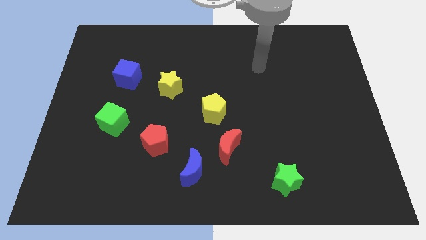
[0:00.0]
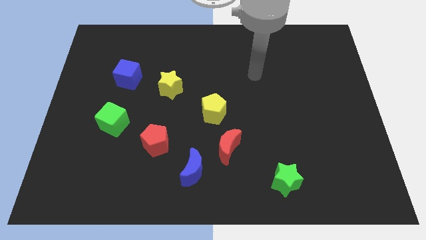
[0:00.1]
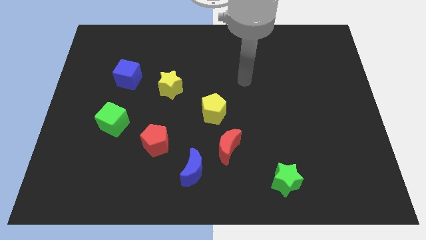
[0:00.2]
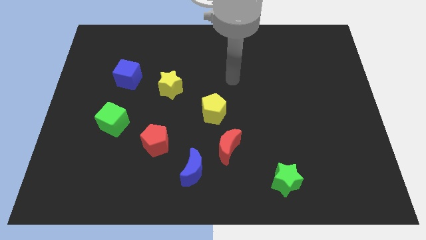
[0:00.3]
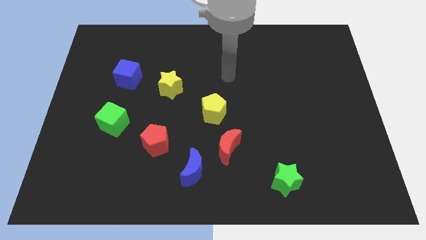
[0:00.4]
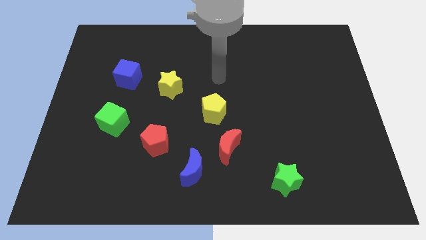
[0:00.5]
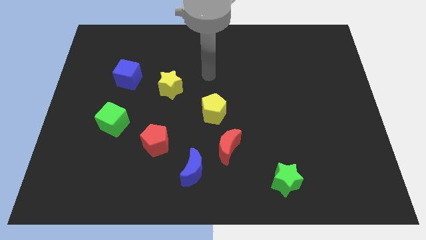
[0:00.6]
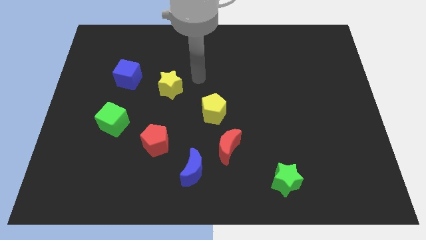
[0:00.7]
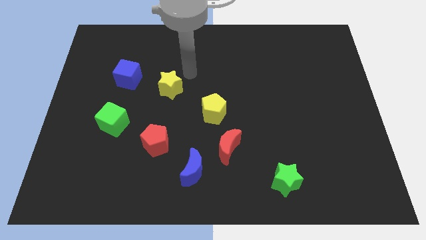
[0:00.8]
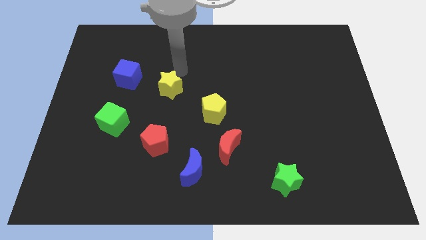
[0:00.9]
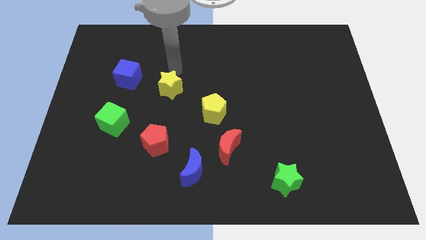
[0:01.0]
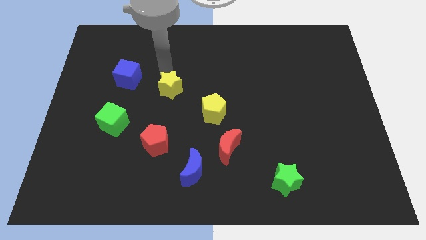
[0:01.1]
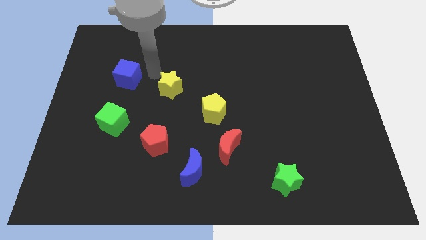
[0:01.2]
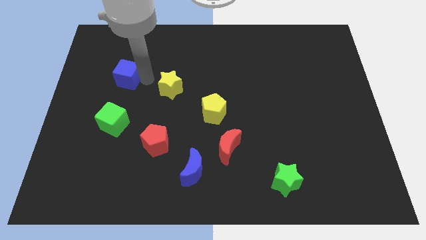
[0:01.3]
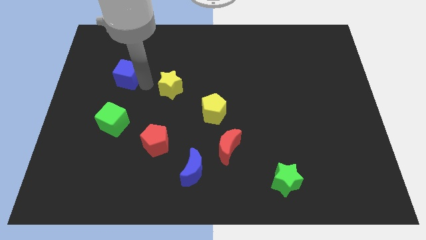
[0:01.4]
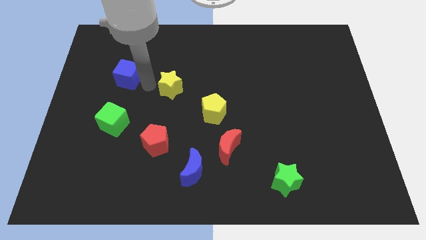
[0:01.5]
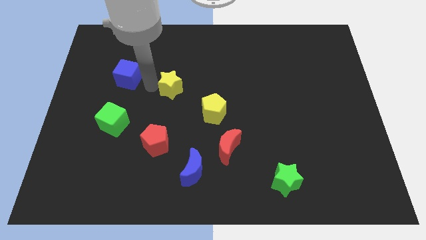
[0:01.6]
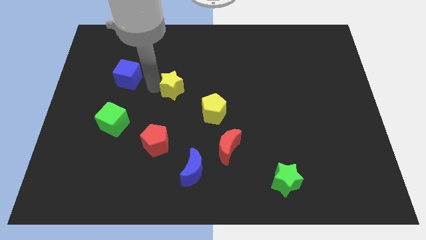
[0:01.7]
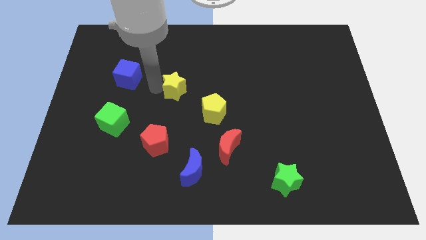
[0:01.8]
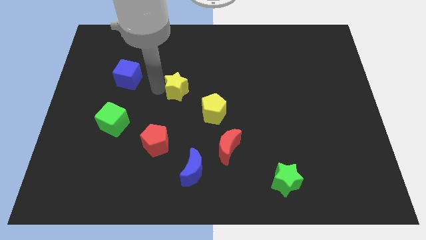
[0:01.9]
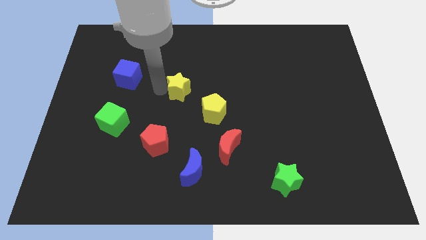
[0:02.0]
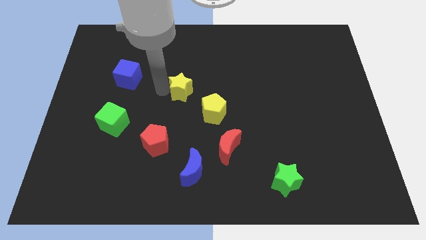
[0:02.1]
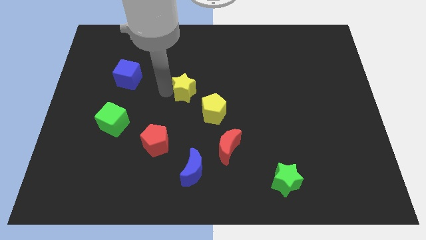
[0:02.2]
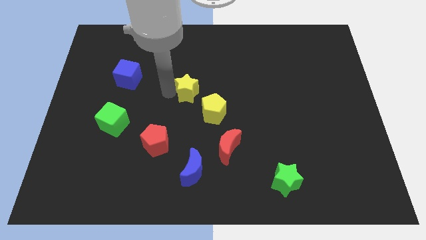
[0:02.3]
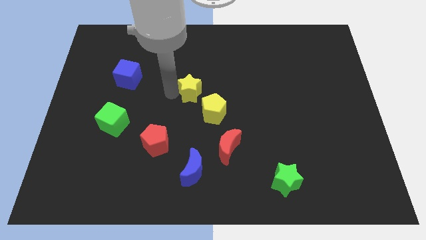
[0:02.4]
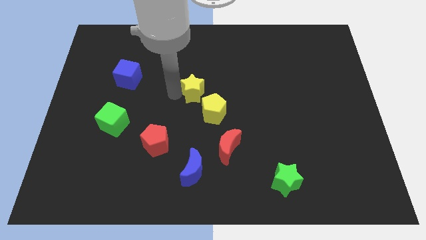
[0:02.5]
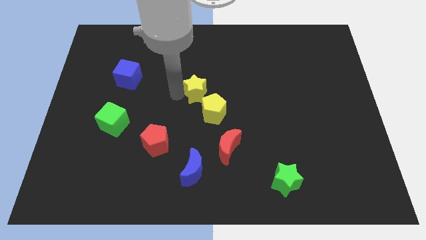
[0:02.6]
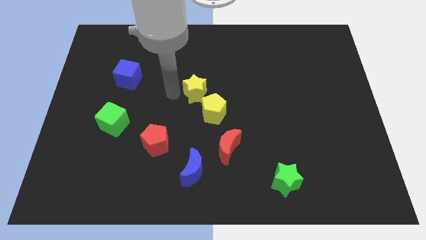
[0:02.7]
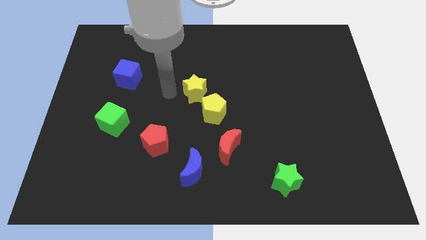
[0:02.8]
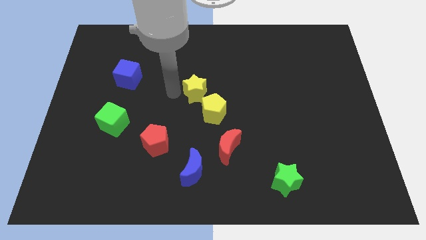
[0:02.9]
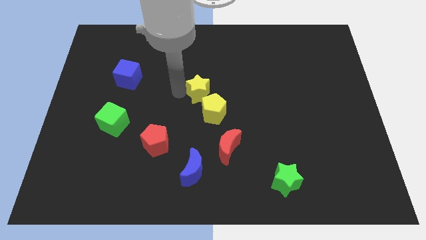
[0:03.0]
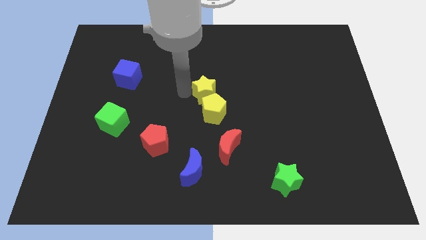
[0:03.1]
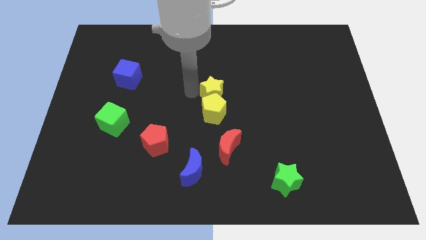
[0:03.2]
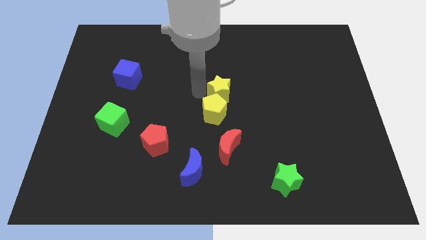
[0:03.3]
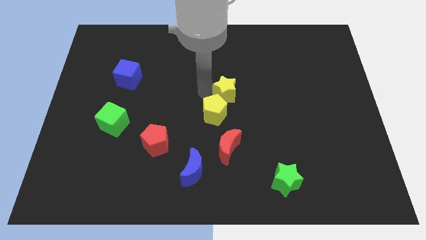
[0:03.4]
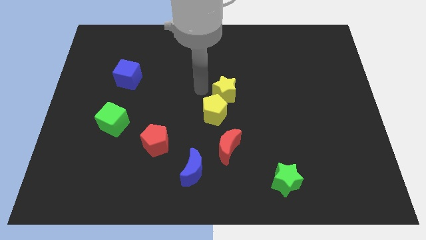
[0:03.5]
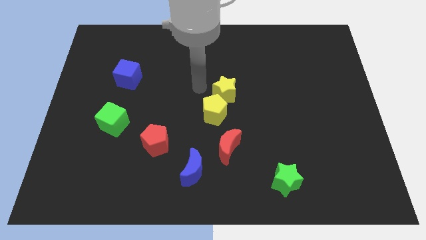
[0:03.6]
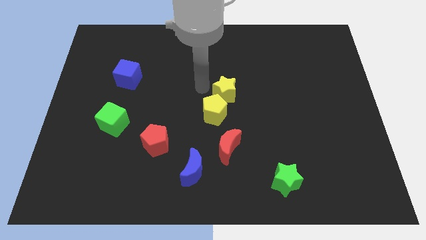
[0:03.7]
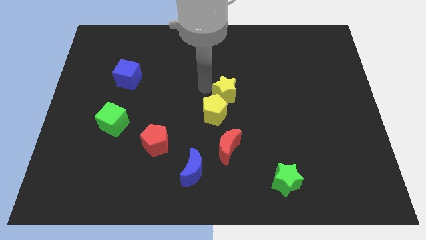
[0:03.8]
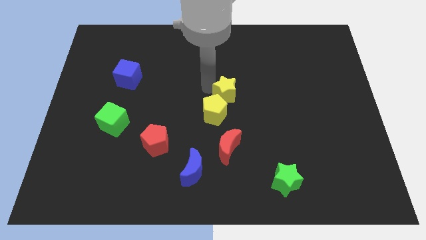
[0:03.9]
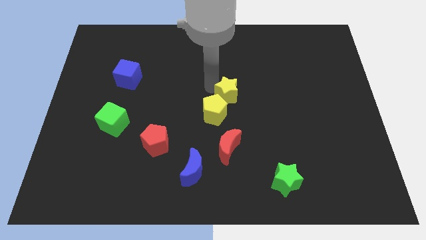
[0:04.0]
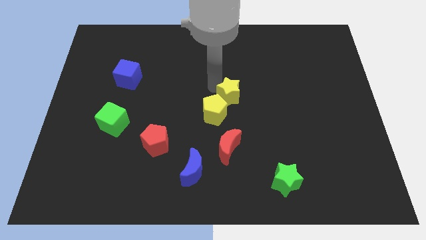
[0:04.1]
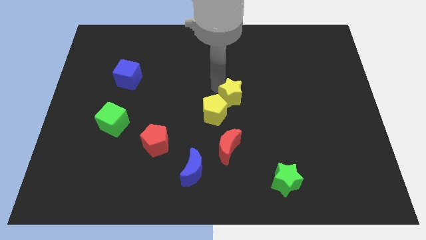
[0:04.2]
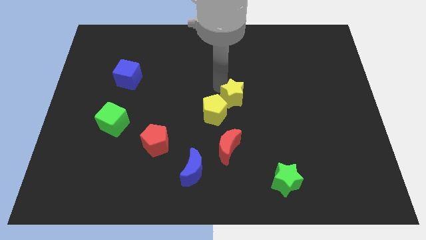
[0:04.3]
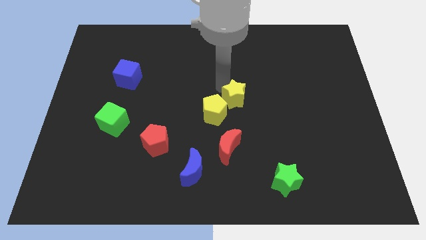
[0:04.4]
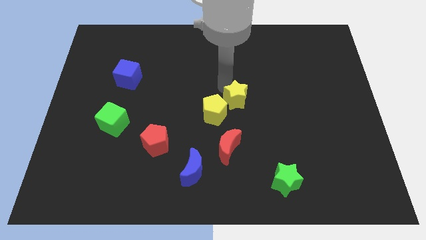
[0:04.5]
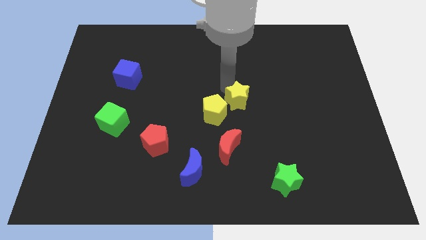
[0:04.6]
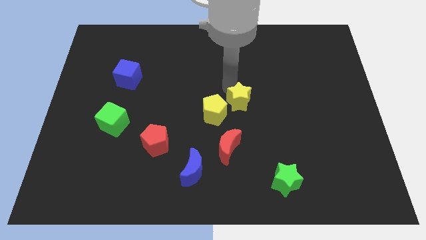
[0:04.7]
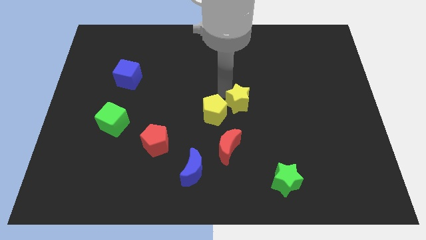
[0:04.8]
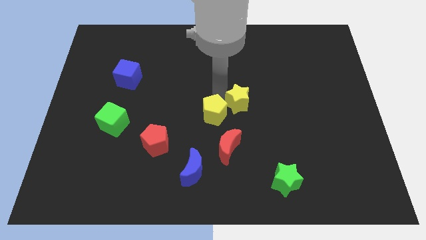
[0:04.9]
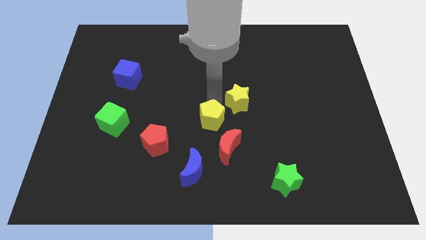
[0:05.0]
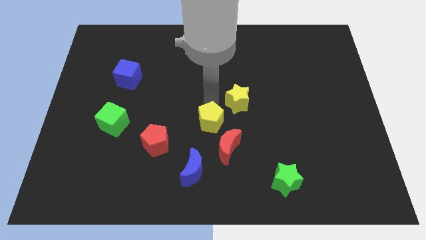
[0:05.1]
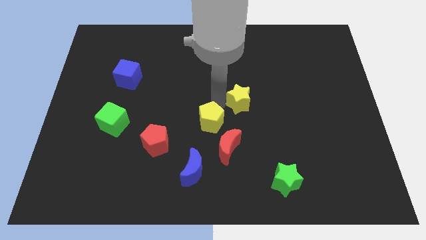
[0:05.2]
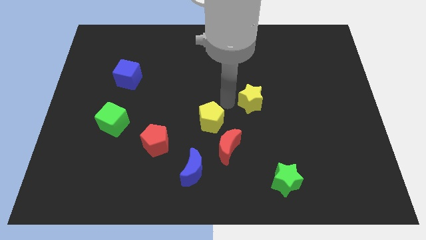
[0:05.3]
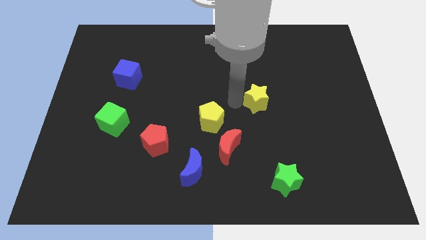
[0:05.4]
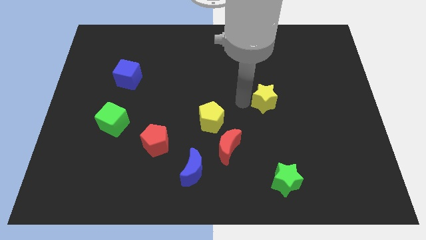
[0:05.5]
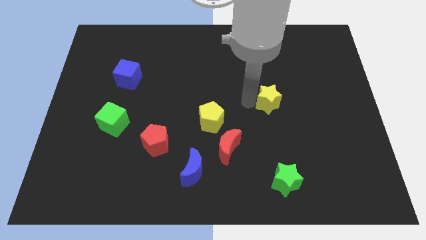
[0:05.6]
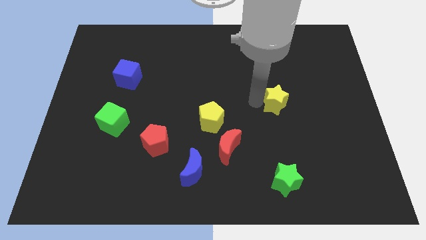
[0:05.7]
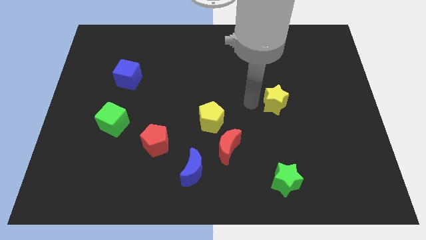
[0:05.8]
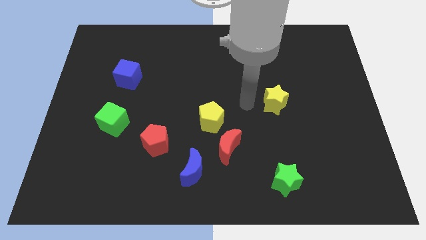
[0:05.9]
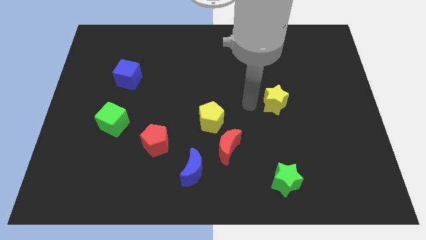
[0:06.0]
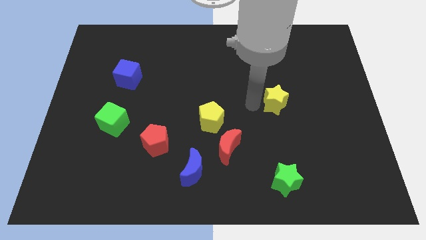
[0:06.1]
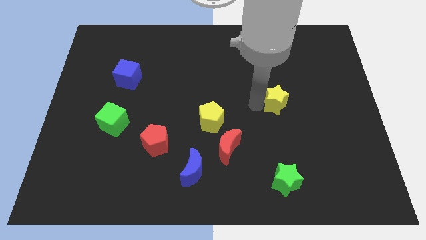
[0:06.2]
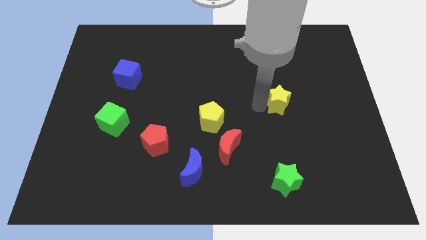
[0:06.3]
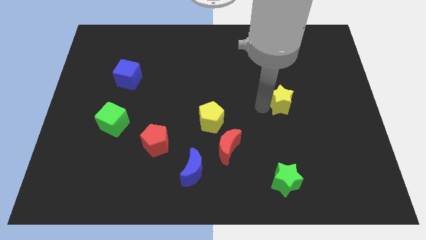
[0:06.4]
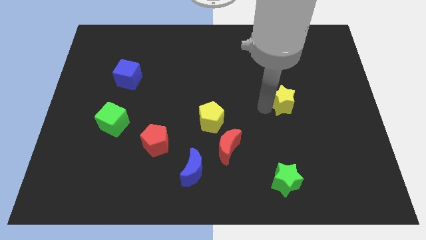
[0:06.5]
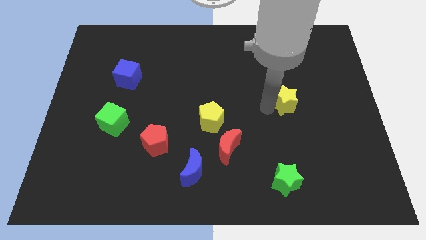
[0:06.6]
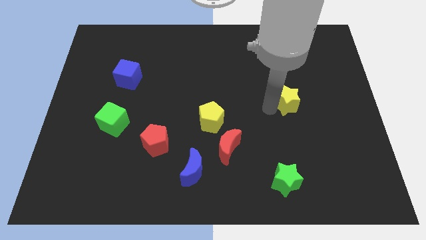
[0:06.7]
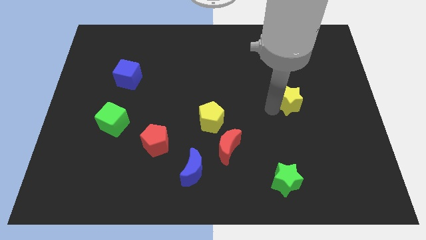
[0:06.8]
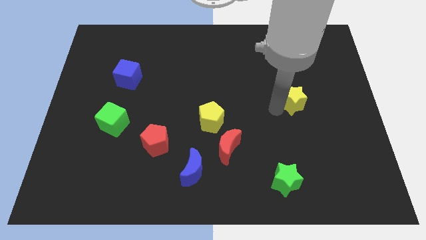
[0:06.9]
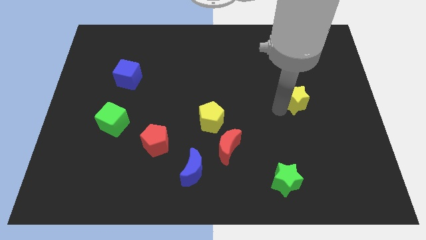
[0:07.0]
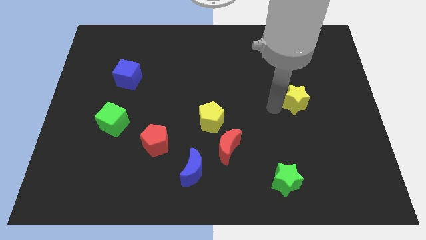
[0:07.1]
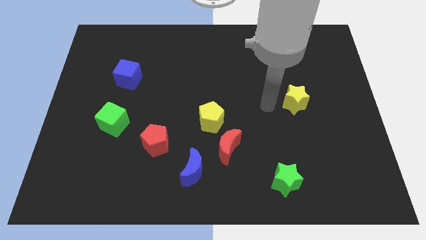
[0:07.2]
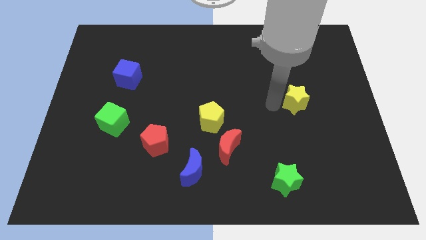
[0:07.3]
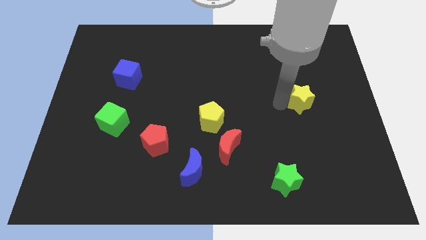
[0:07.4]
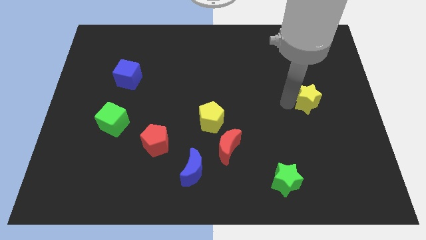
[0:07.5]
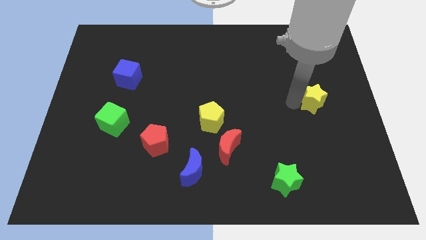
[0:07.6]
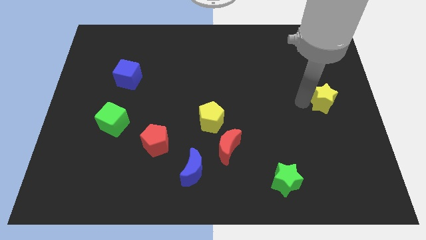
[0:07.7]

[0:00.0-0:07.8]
move the yellow star to the right side
